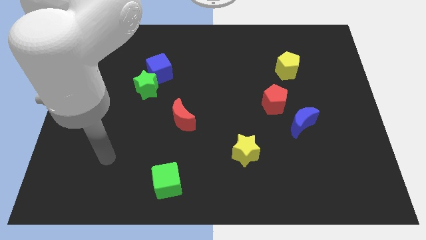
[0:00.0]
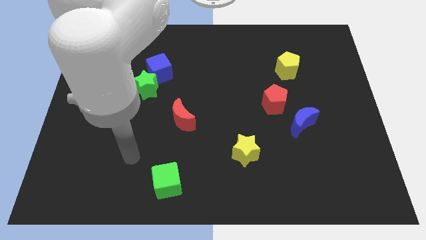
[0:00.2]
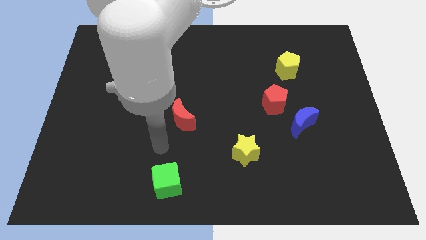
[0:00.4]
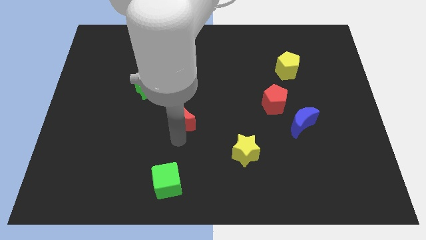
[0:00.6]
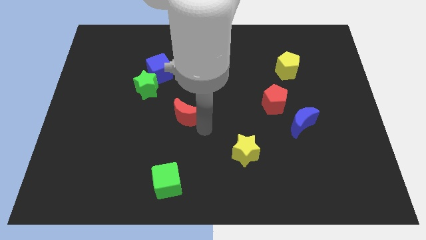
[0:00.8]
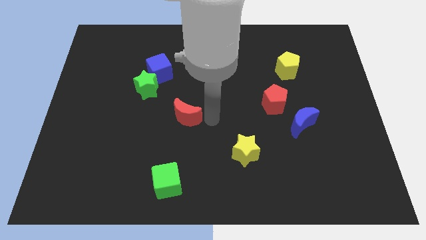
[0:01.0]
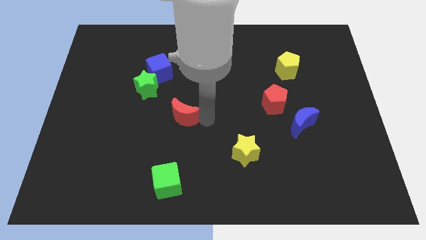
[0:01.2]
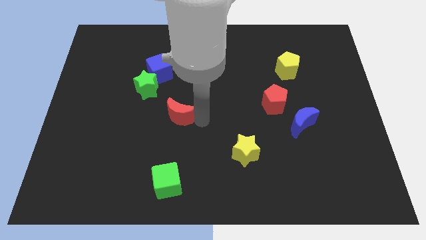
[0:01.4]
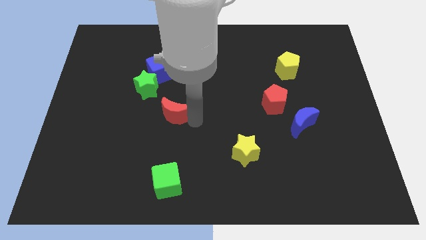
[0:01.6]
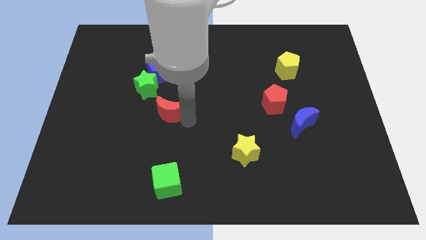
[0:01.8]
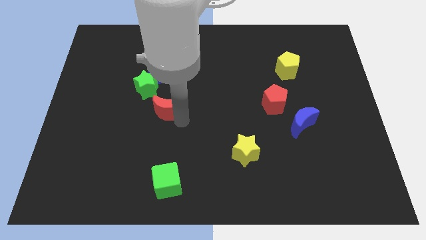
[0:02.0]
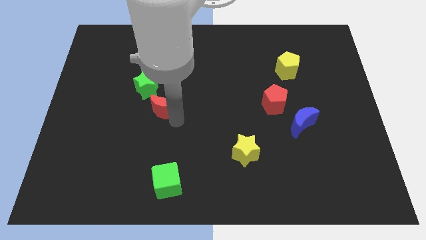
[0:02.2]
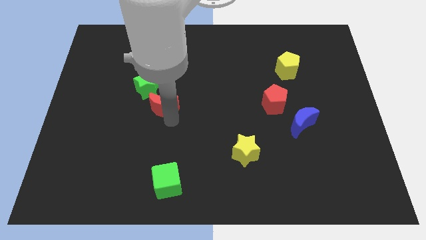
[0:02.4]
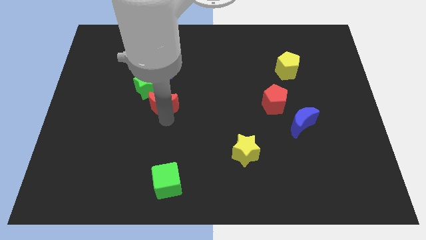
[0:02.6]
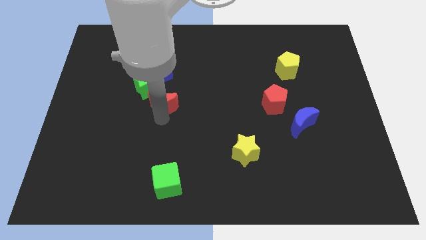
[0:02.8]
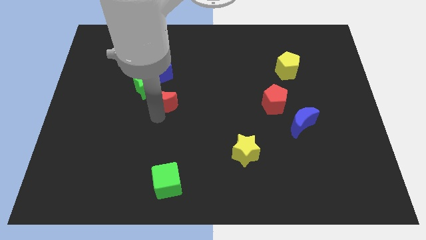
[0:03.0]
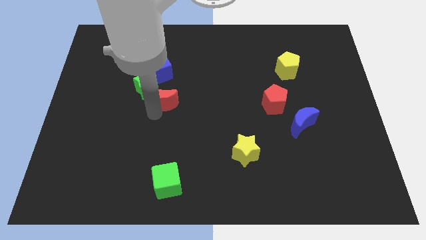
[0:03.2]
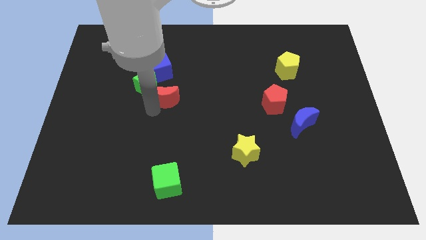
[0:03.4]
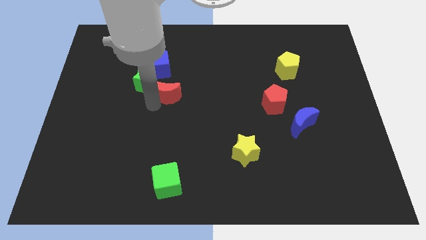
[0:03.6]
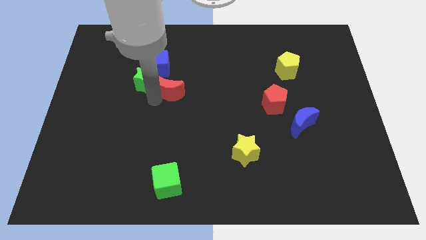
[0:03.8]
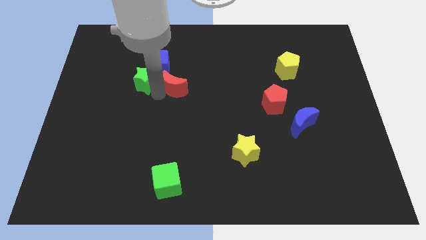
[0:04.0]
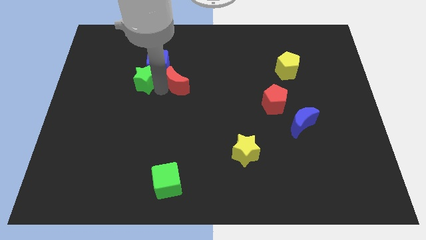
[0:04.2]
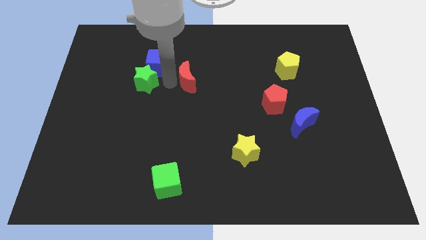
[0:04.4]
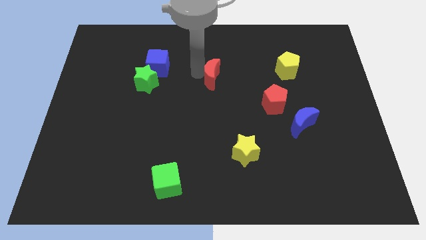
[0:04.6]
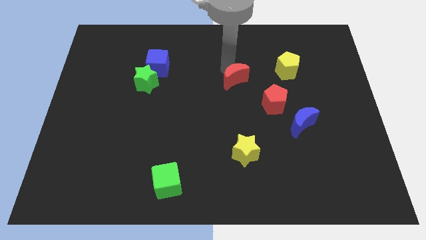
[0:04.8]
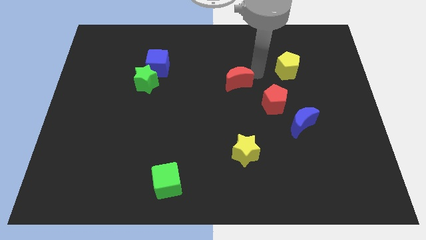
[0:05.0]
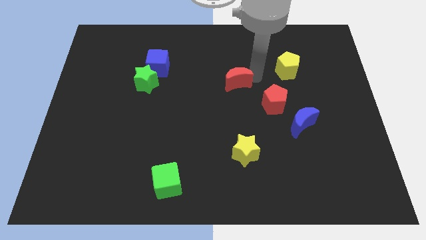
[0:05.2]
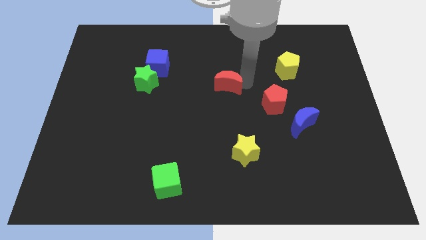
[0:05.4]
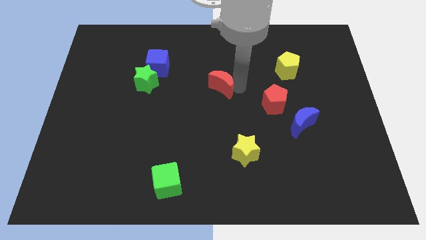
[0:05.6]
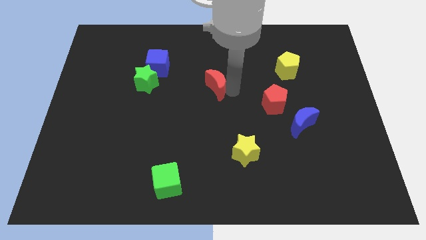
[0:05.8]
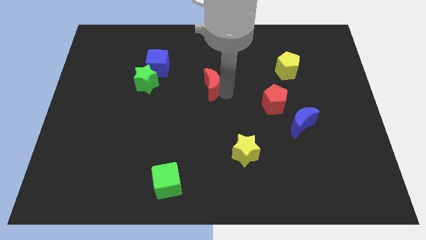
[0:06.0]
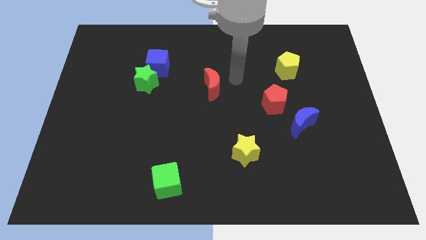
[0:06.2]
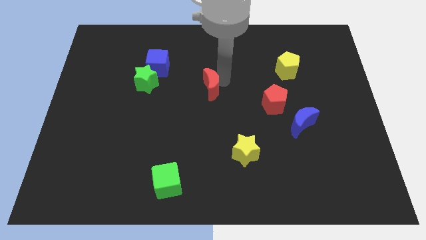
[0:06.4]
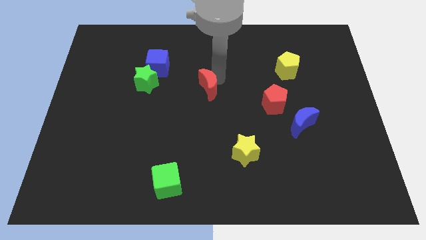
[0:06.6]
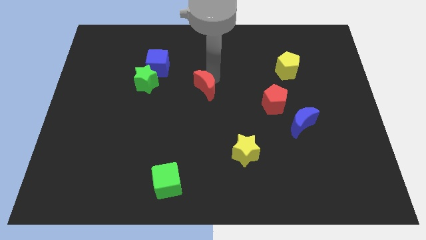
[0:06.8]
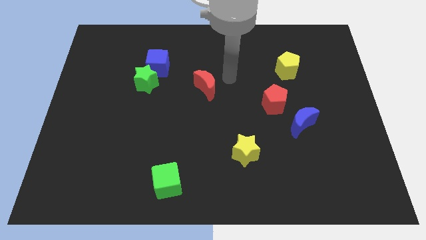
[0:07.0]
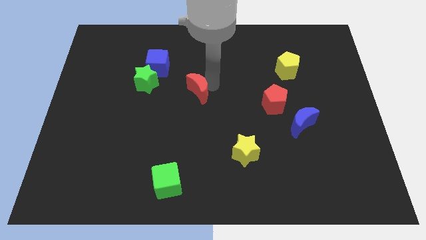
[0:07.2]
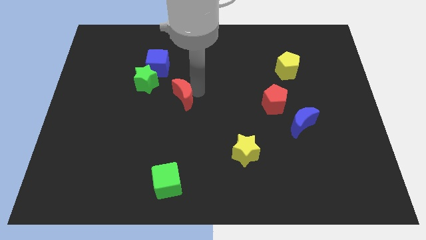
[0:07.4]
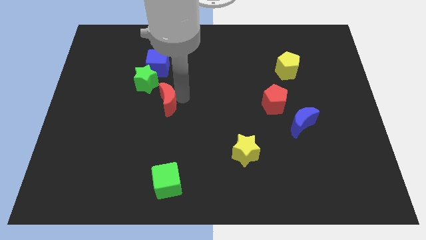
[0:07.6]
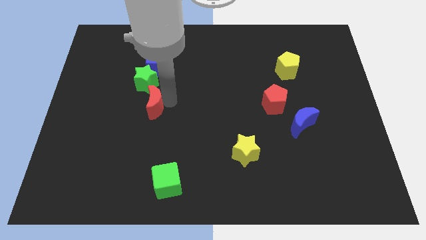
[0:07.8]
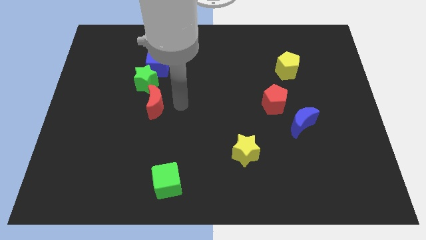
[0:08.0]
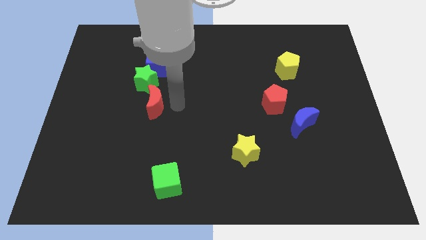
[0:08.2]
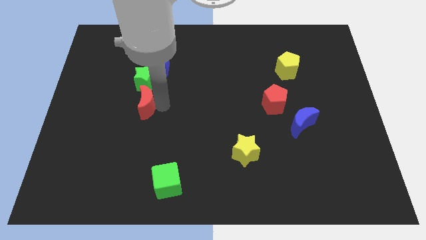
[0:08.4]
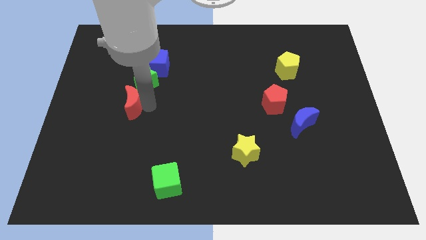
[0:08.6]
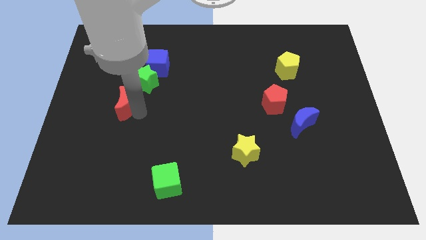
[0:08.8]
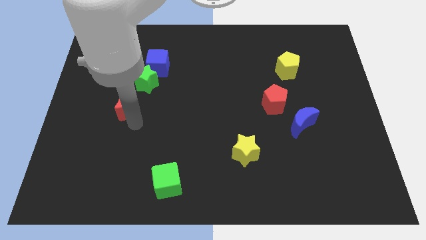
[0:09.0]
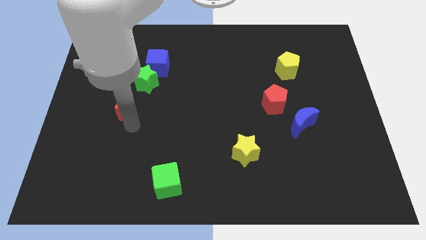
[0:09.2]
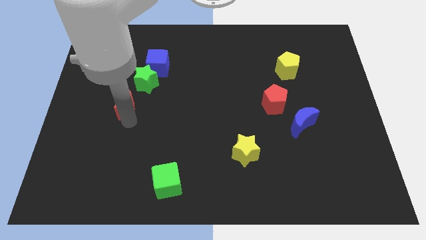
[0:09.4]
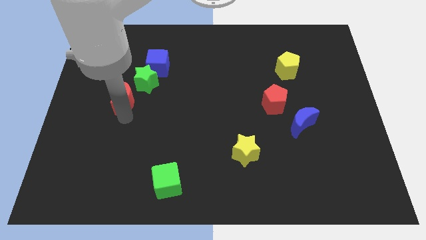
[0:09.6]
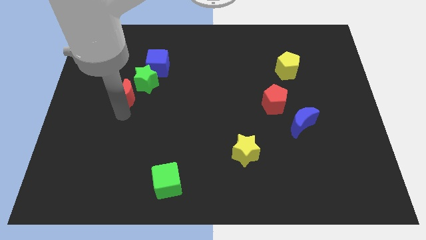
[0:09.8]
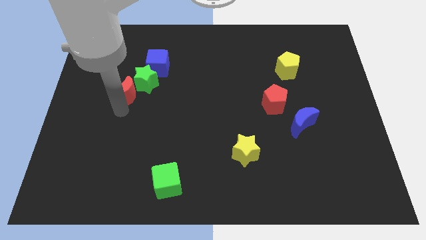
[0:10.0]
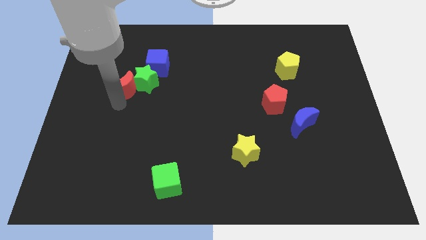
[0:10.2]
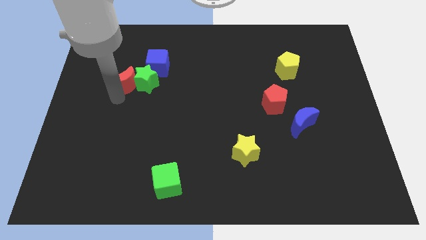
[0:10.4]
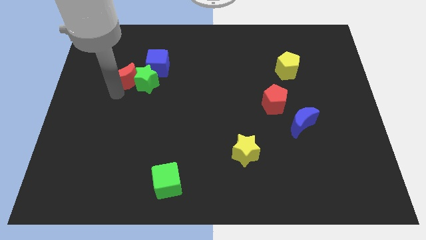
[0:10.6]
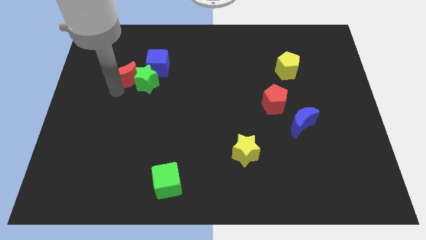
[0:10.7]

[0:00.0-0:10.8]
put the red moon left of the blue cube

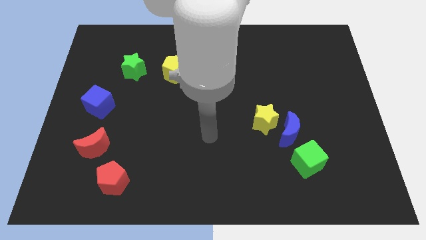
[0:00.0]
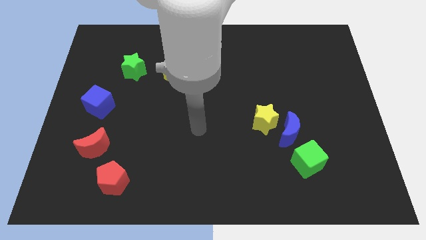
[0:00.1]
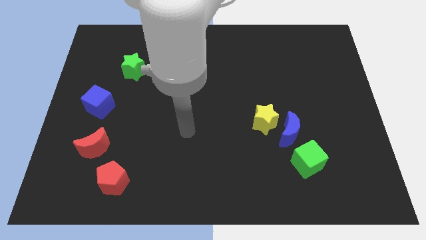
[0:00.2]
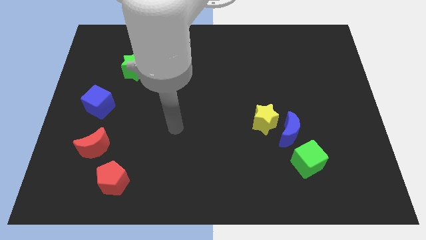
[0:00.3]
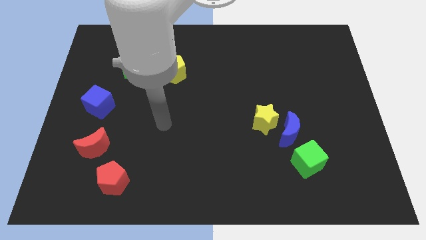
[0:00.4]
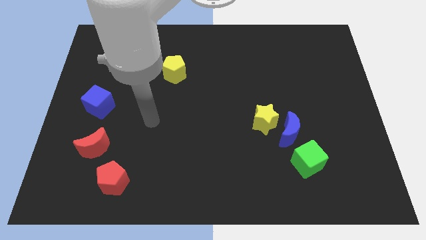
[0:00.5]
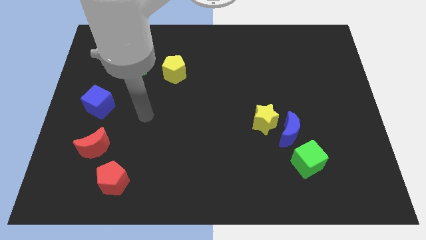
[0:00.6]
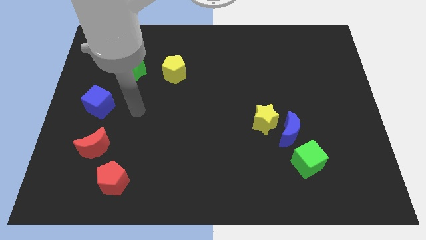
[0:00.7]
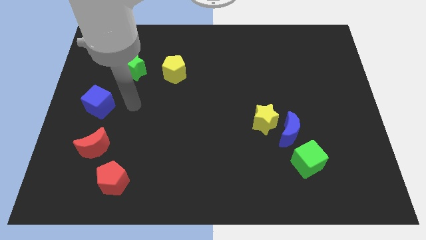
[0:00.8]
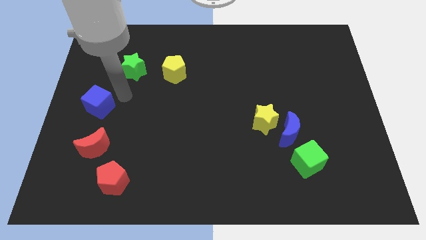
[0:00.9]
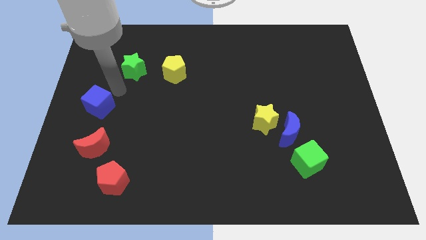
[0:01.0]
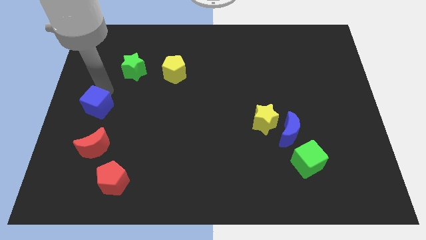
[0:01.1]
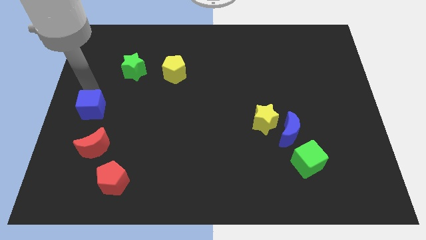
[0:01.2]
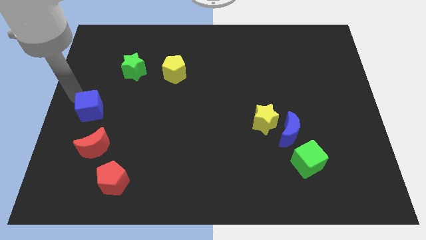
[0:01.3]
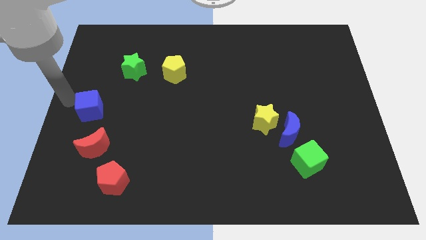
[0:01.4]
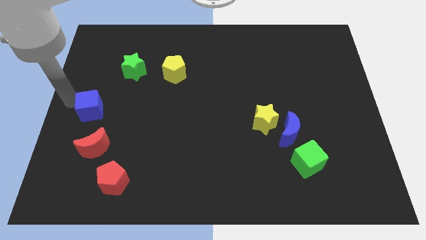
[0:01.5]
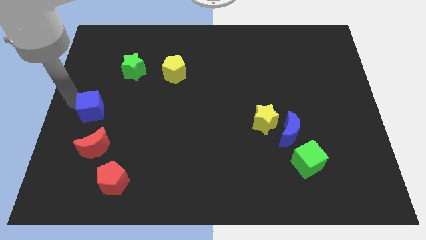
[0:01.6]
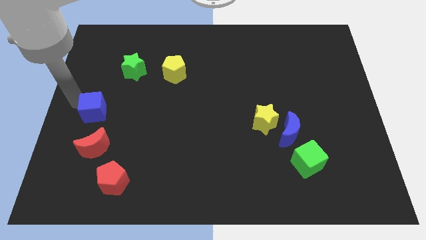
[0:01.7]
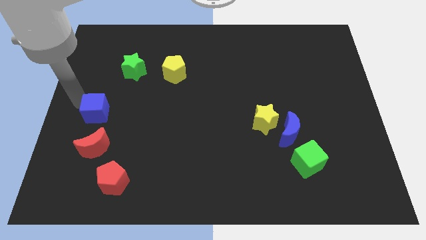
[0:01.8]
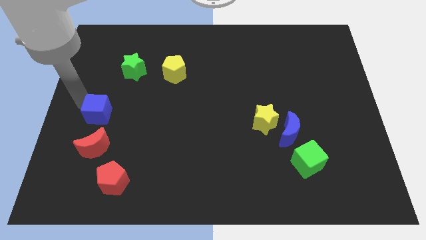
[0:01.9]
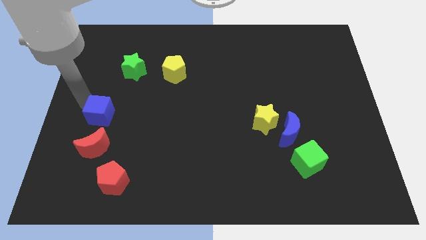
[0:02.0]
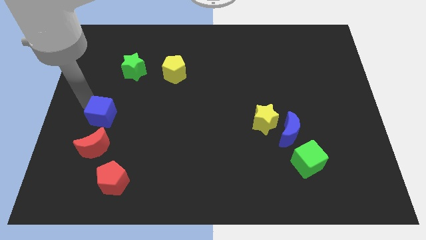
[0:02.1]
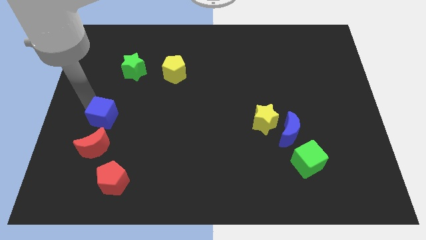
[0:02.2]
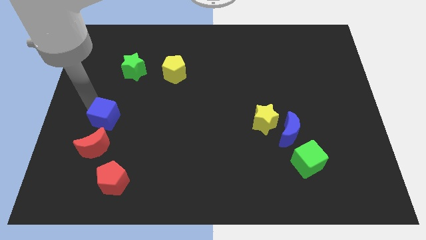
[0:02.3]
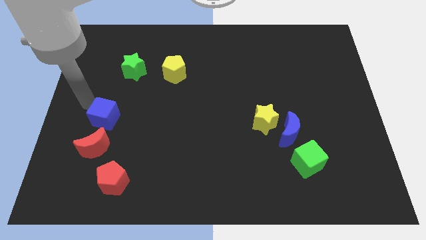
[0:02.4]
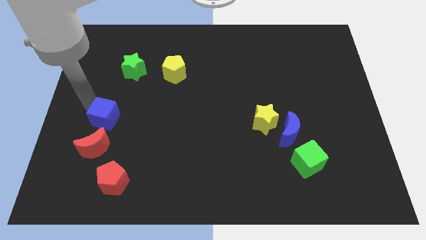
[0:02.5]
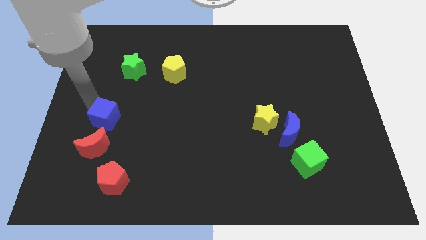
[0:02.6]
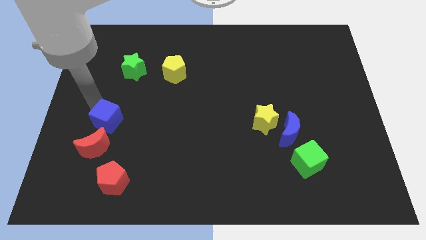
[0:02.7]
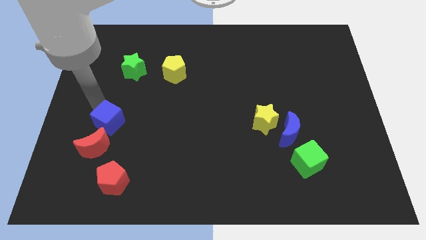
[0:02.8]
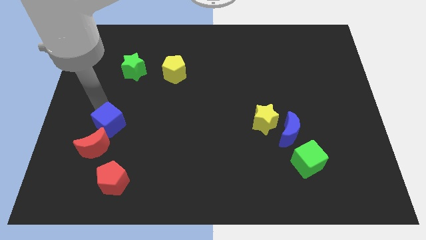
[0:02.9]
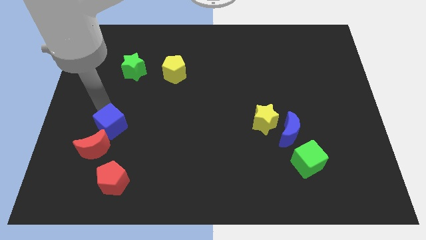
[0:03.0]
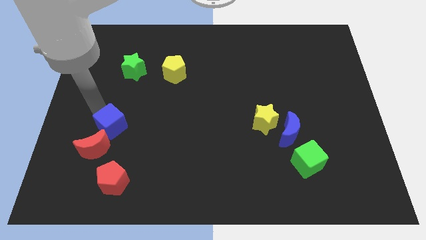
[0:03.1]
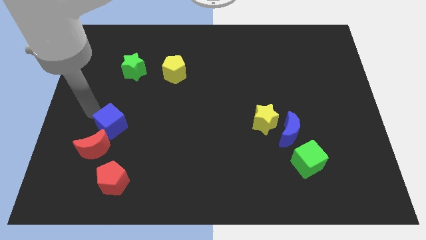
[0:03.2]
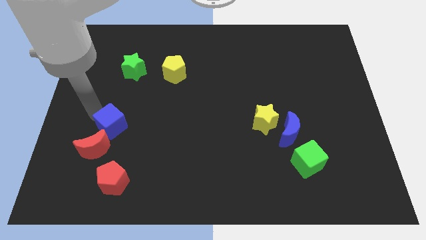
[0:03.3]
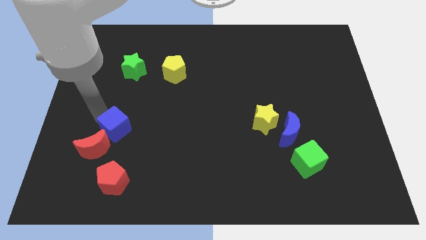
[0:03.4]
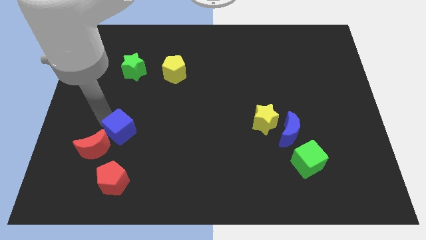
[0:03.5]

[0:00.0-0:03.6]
move the blue cube just right of the red moon
